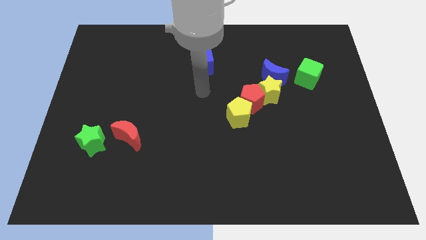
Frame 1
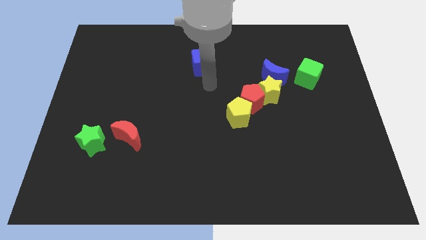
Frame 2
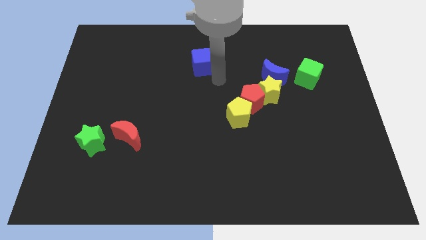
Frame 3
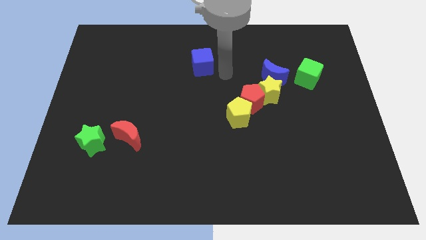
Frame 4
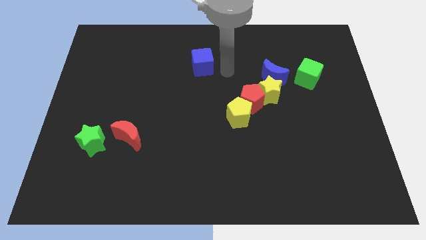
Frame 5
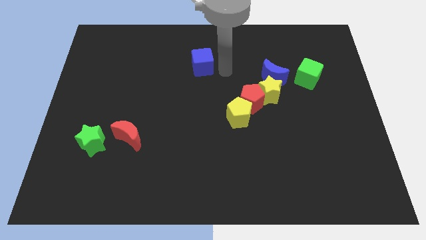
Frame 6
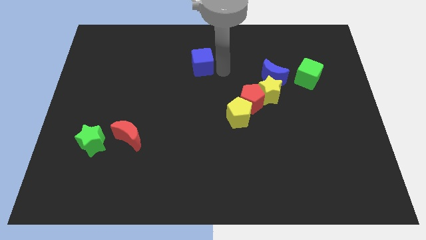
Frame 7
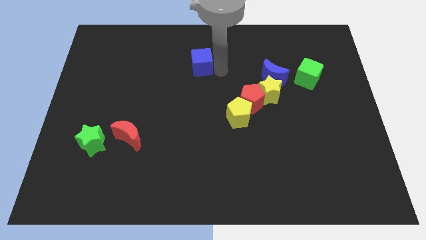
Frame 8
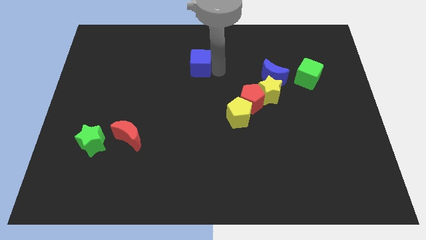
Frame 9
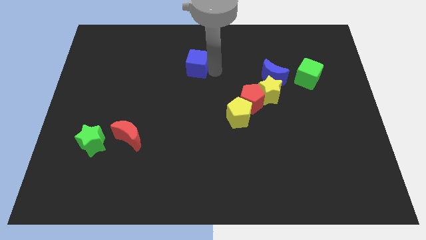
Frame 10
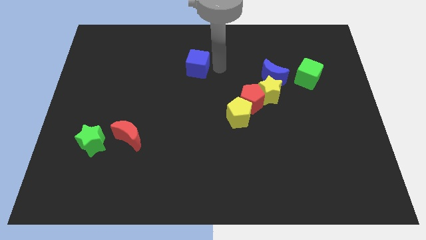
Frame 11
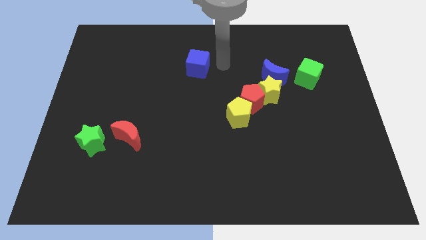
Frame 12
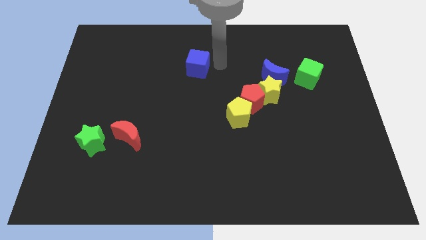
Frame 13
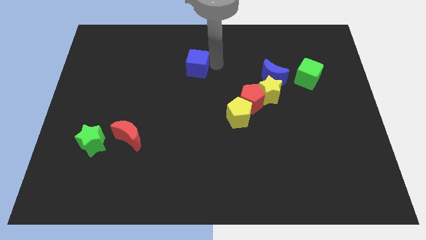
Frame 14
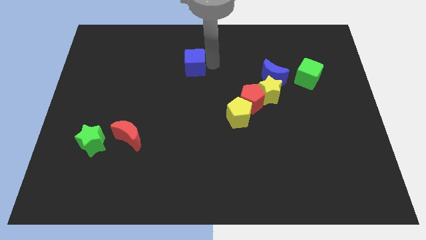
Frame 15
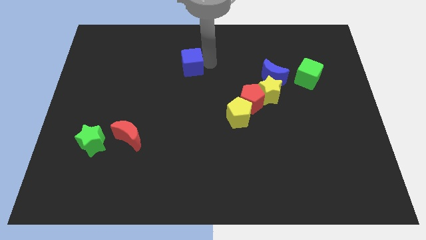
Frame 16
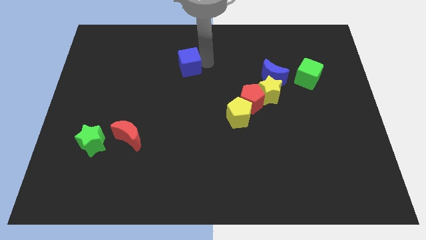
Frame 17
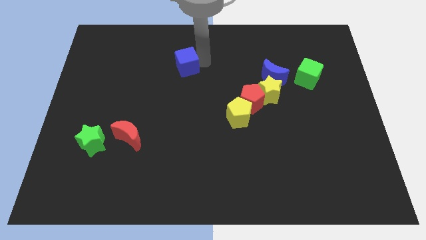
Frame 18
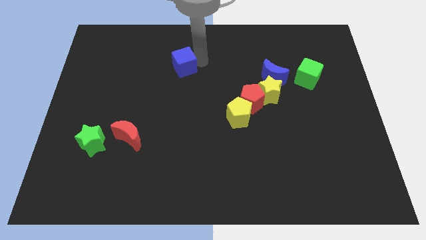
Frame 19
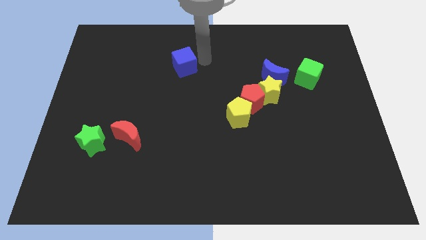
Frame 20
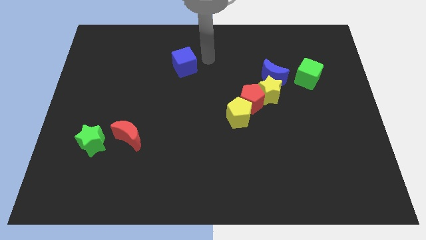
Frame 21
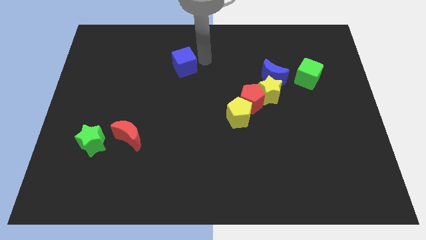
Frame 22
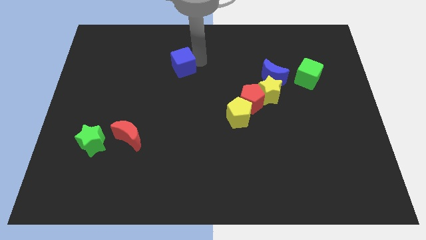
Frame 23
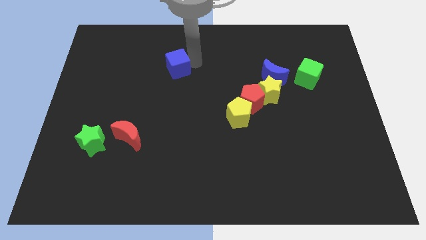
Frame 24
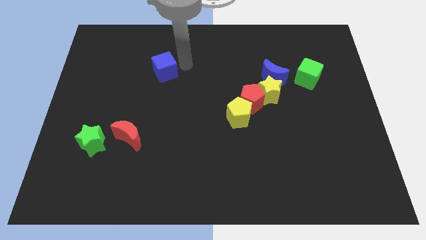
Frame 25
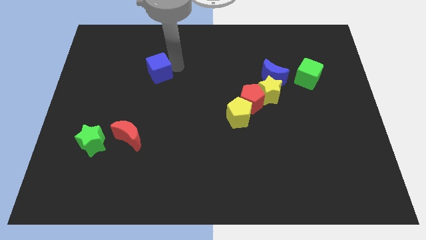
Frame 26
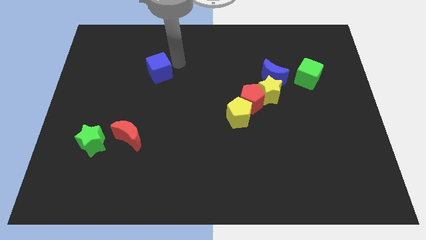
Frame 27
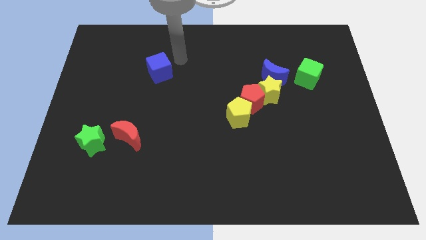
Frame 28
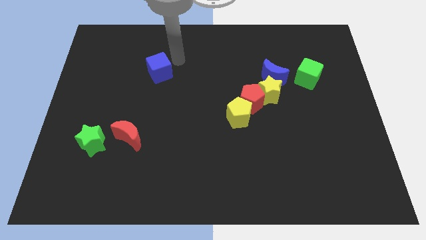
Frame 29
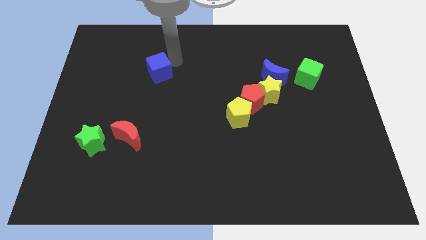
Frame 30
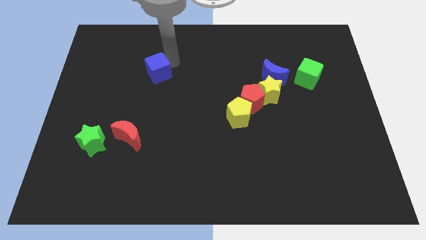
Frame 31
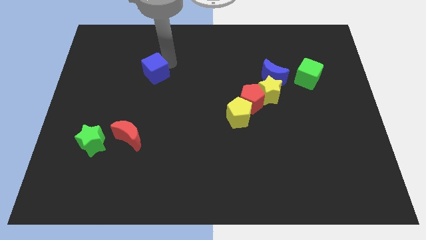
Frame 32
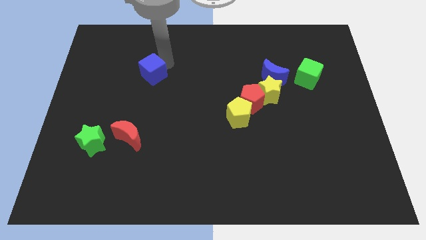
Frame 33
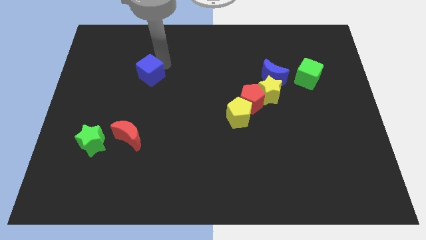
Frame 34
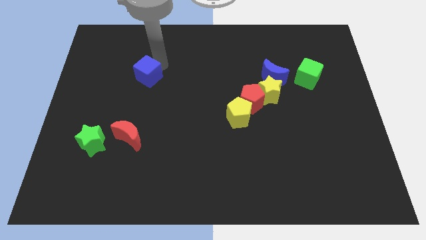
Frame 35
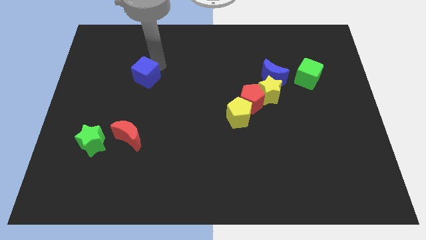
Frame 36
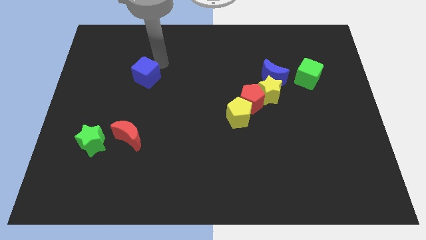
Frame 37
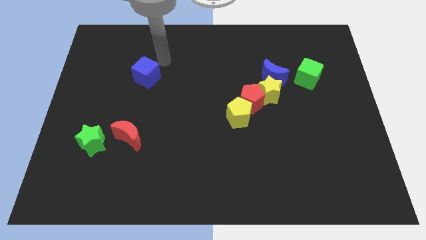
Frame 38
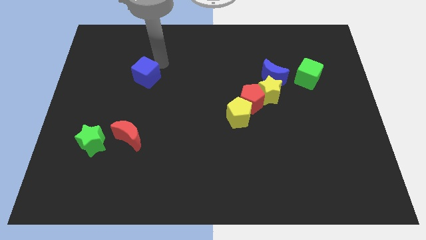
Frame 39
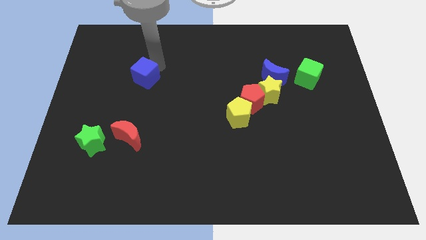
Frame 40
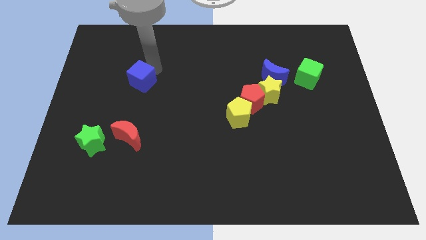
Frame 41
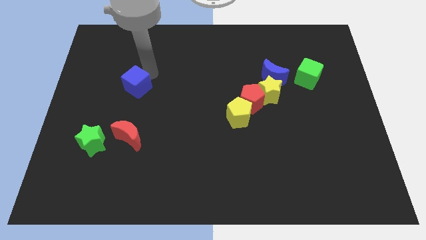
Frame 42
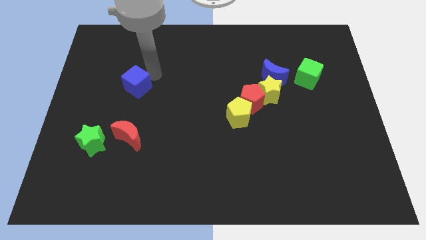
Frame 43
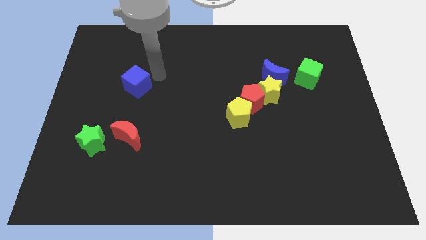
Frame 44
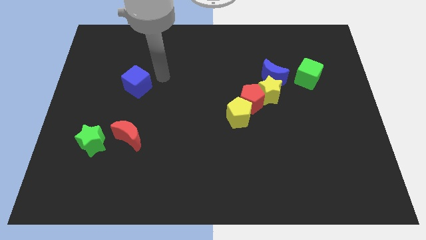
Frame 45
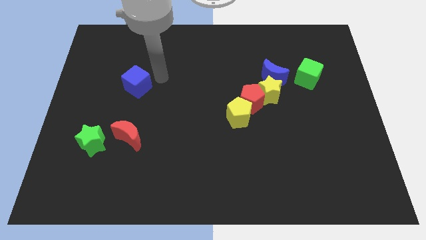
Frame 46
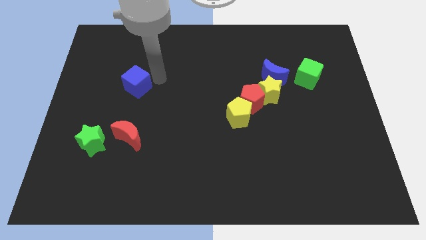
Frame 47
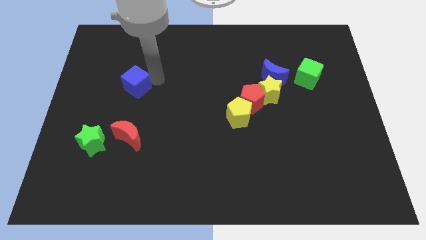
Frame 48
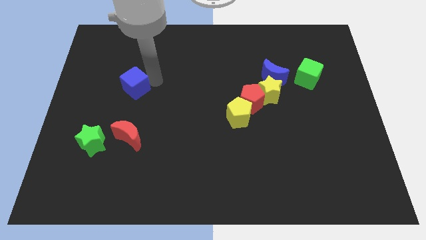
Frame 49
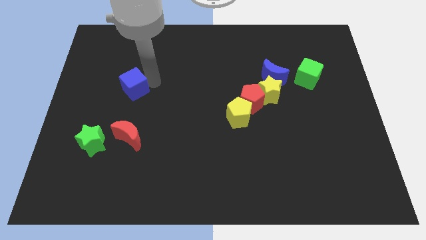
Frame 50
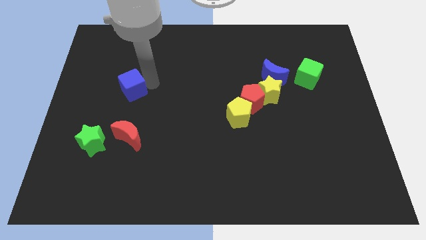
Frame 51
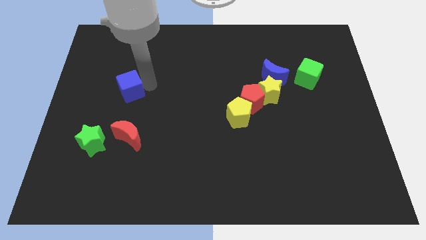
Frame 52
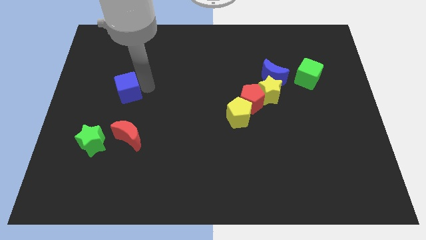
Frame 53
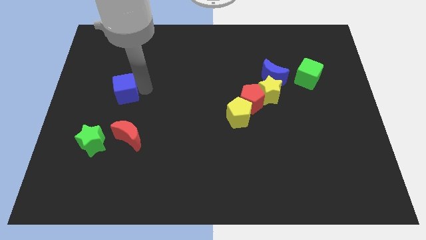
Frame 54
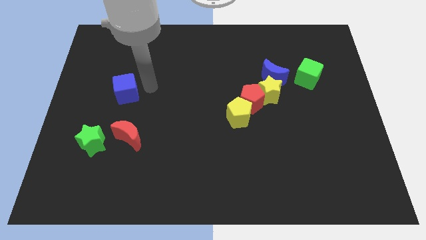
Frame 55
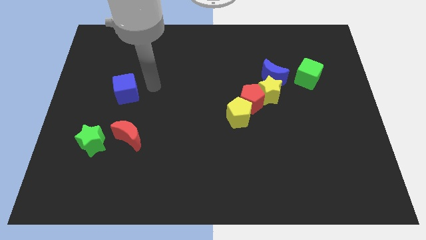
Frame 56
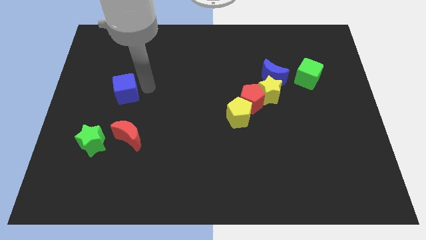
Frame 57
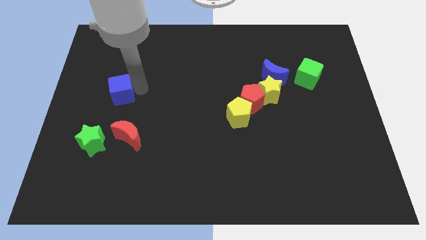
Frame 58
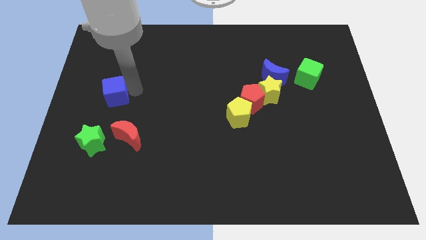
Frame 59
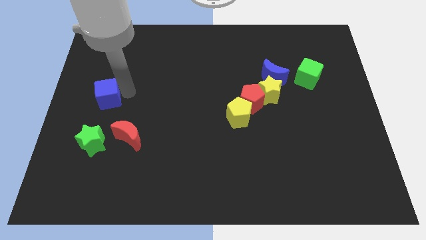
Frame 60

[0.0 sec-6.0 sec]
move the blue cube to the left side

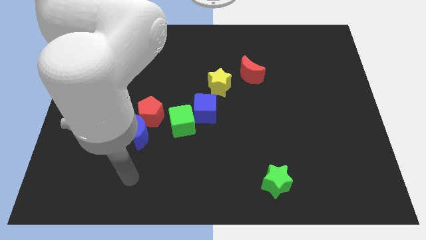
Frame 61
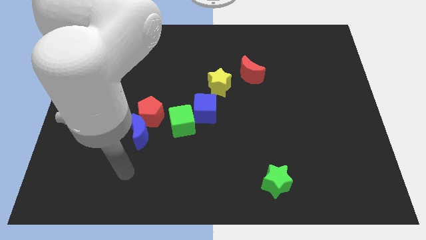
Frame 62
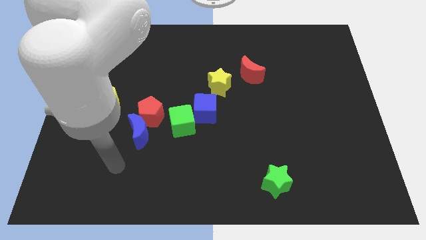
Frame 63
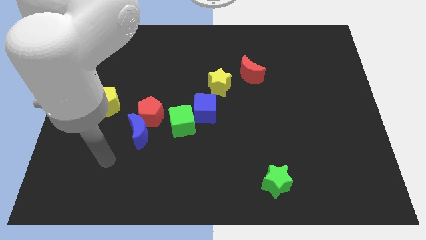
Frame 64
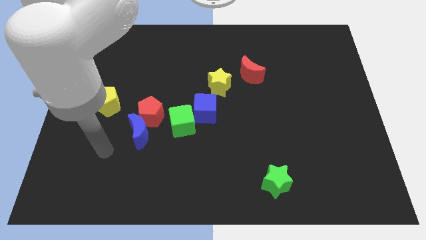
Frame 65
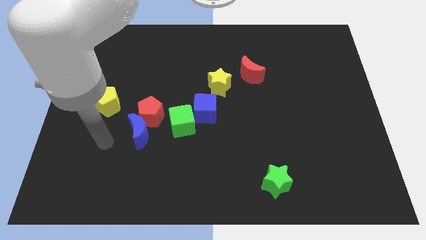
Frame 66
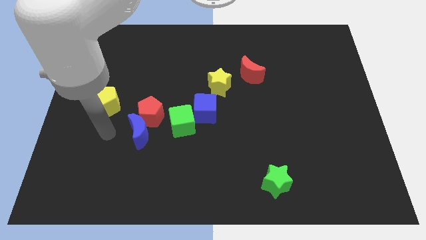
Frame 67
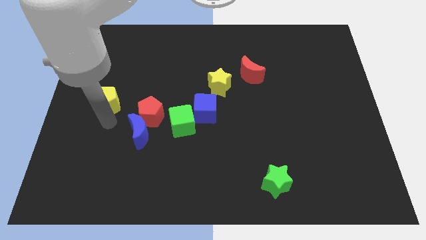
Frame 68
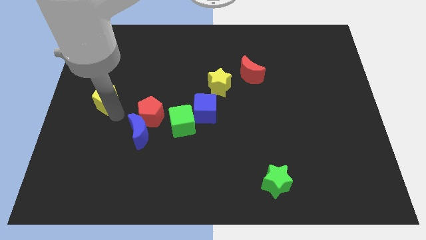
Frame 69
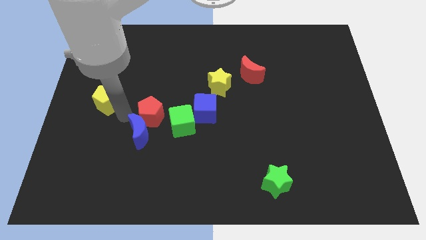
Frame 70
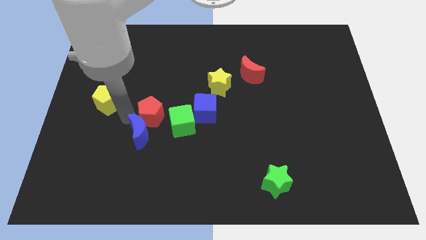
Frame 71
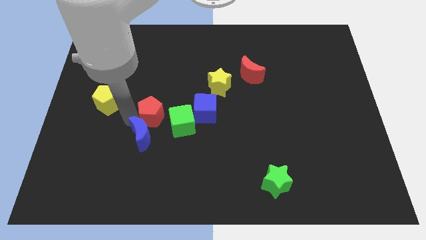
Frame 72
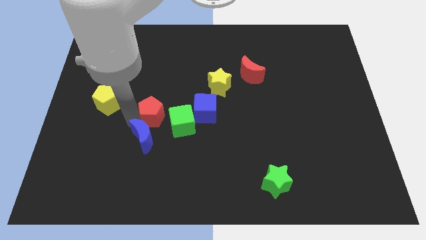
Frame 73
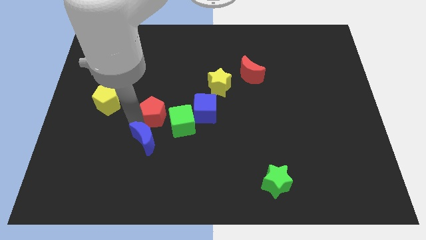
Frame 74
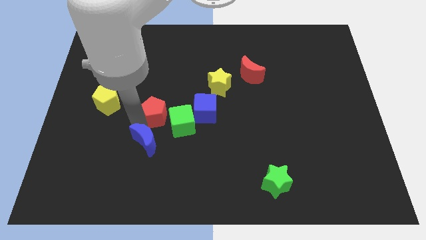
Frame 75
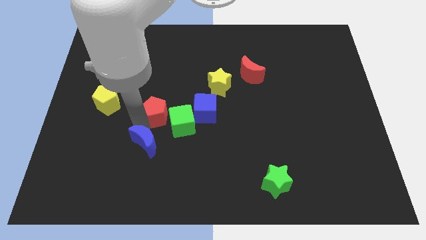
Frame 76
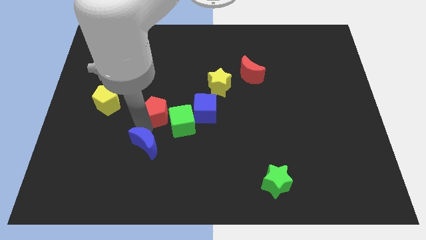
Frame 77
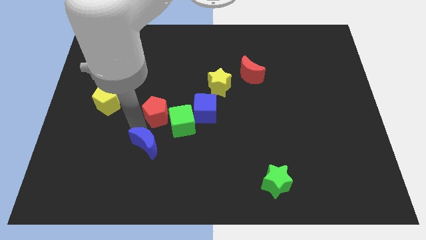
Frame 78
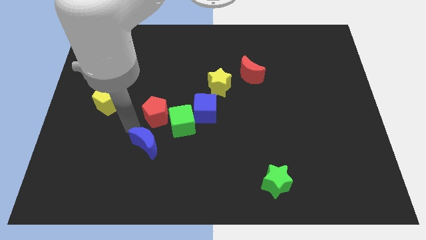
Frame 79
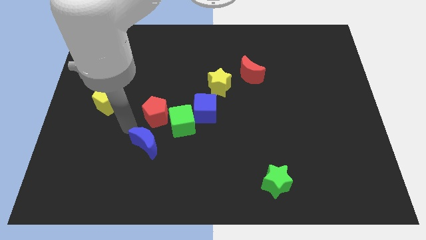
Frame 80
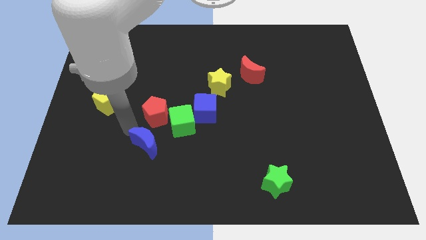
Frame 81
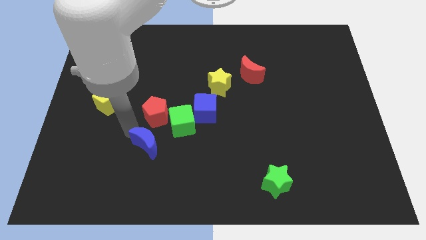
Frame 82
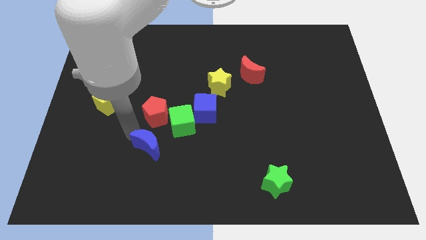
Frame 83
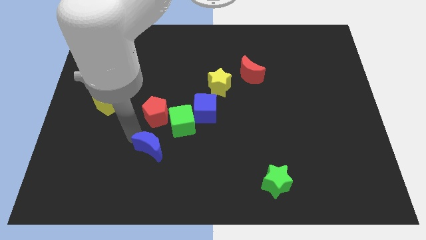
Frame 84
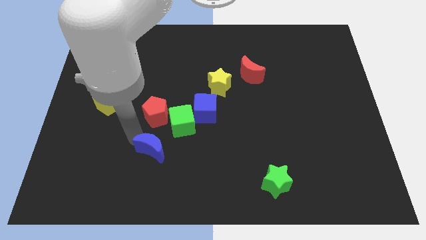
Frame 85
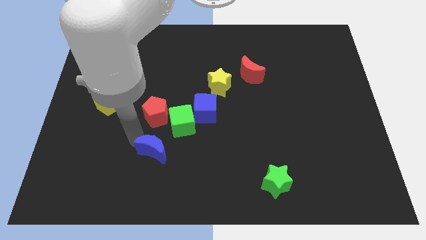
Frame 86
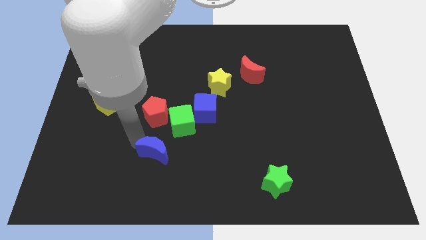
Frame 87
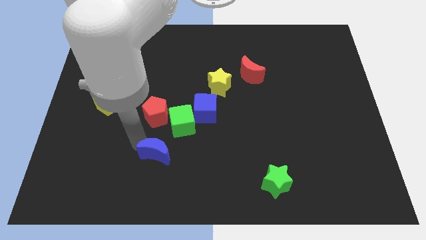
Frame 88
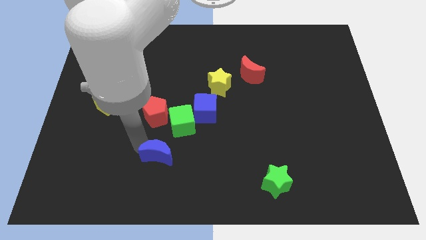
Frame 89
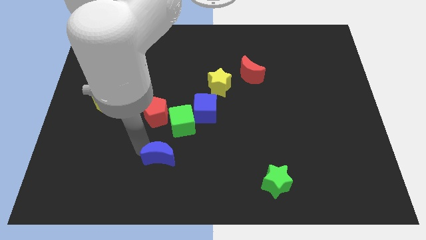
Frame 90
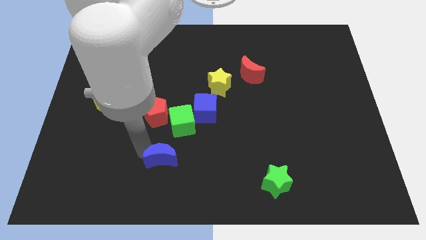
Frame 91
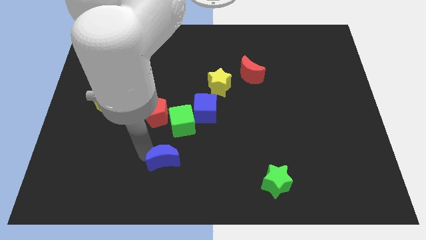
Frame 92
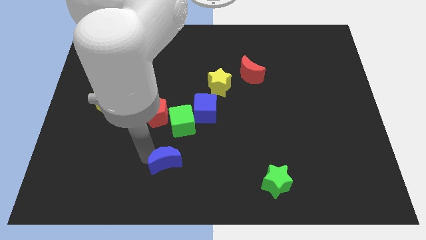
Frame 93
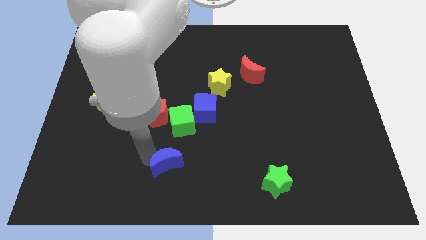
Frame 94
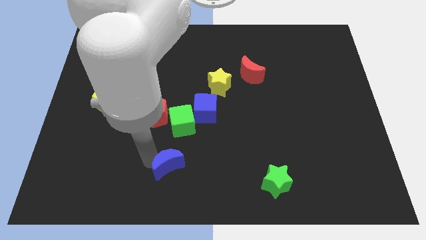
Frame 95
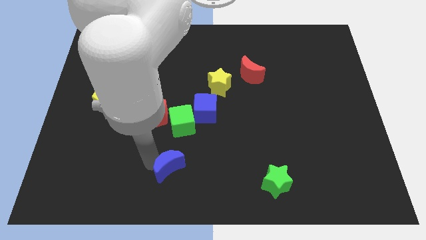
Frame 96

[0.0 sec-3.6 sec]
slide the blue moon to the bottom
